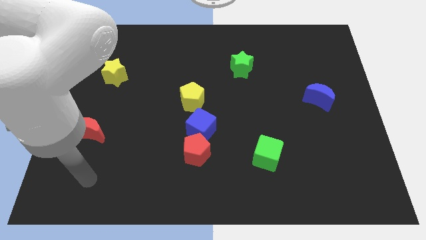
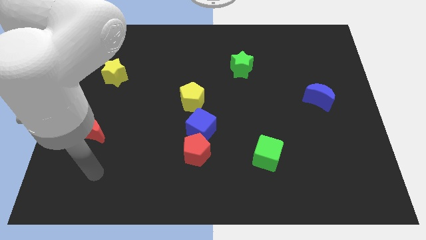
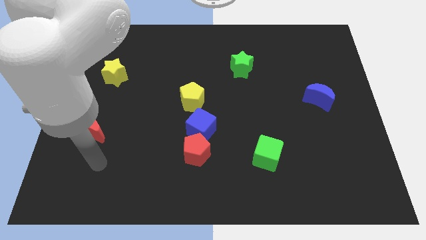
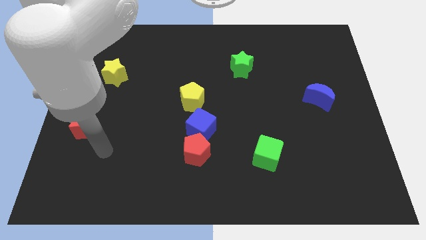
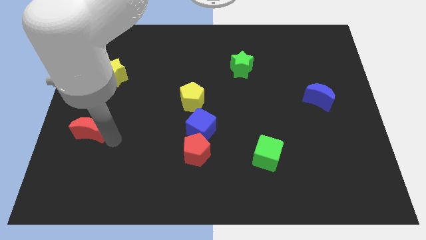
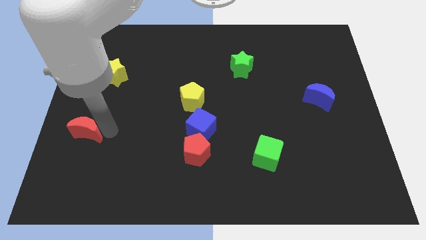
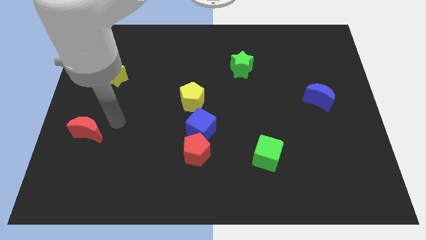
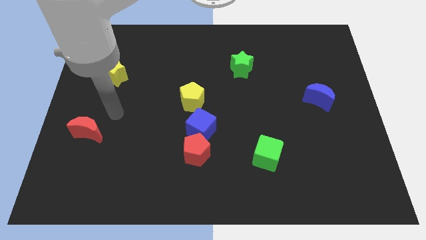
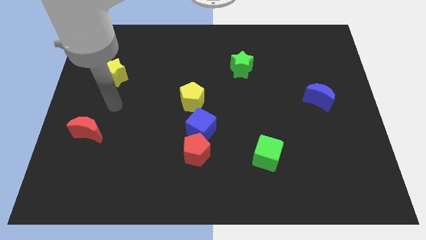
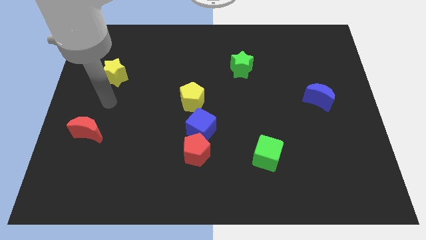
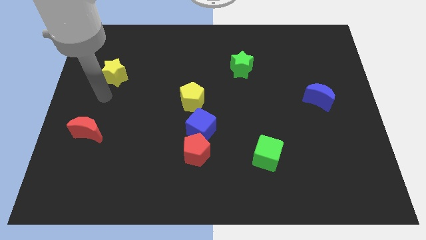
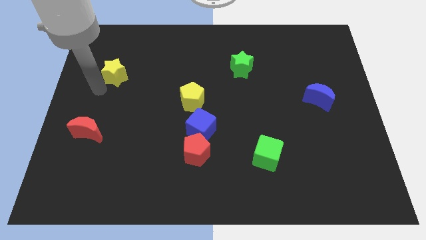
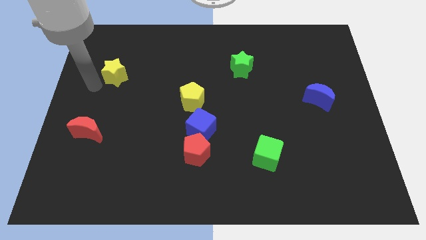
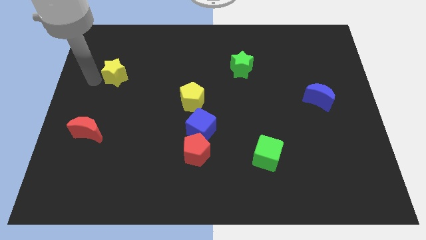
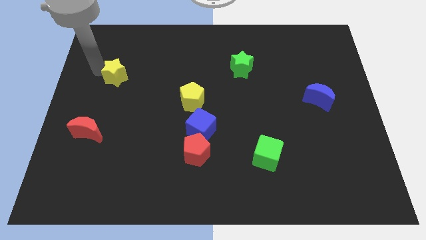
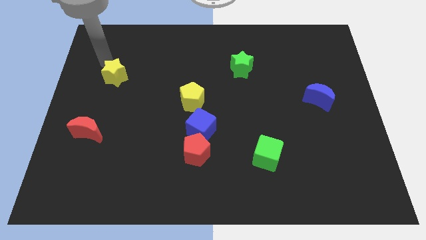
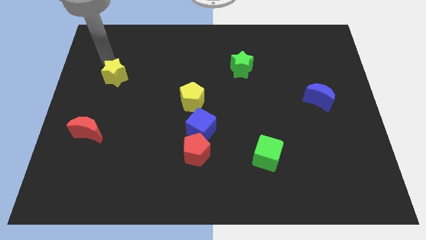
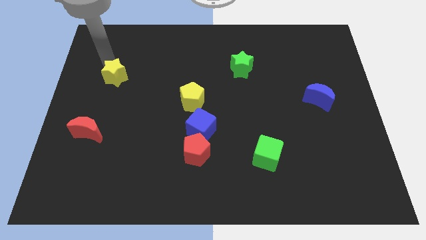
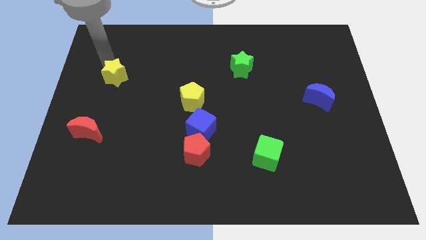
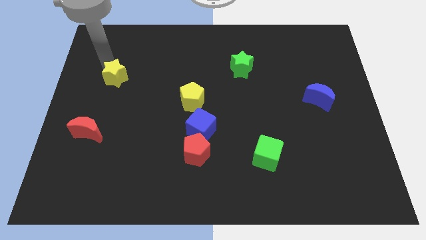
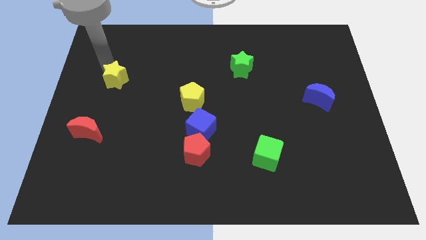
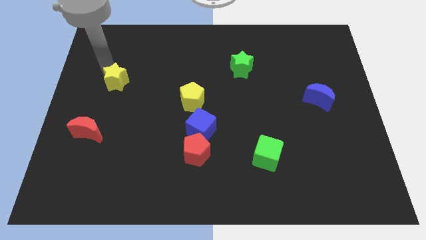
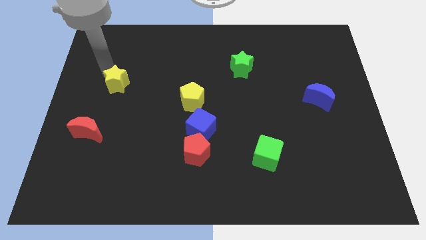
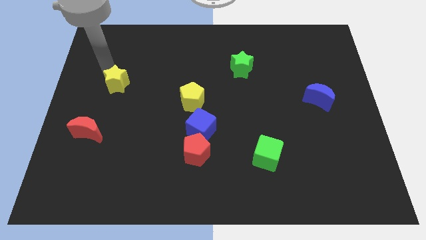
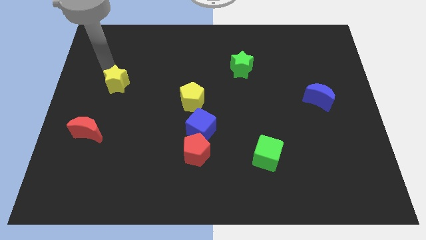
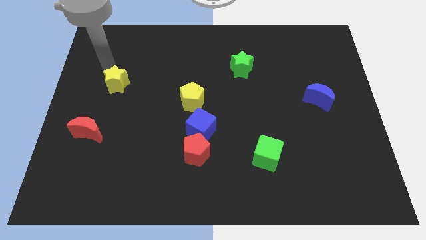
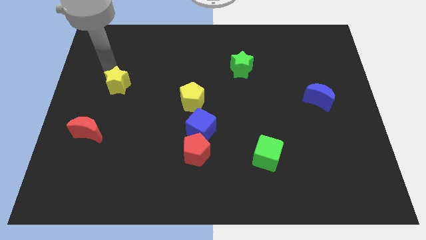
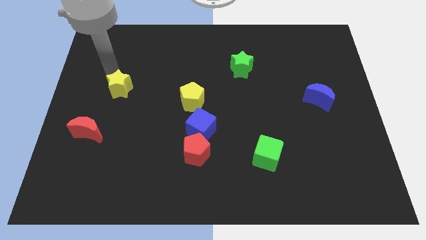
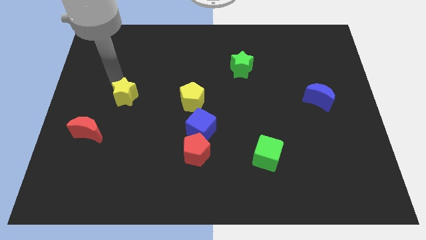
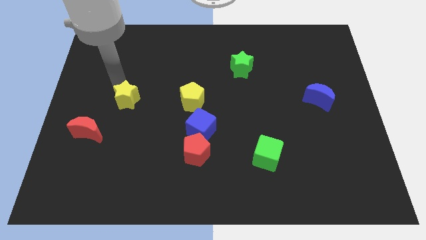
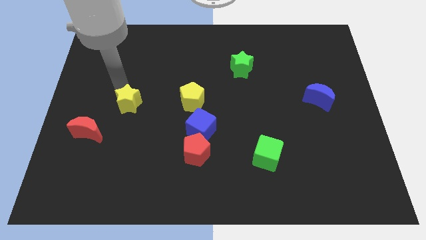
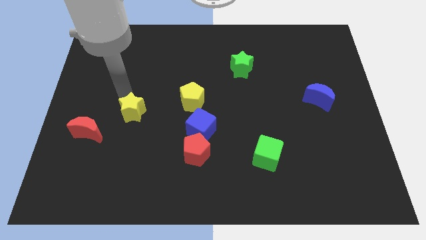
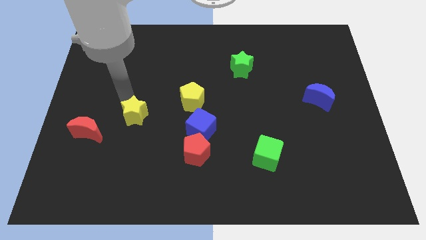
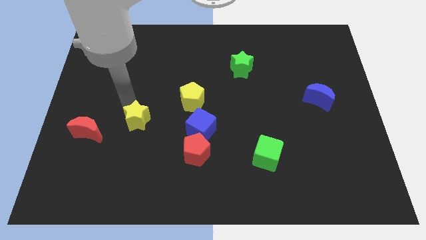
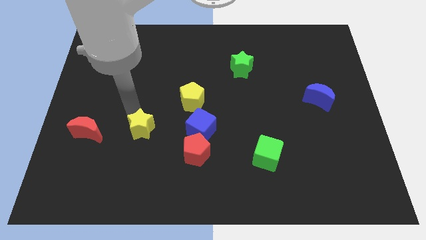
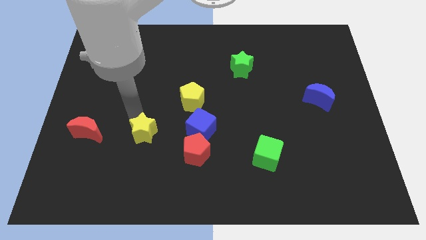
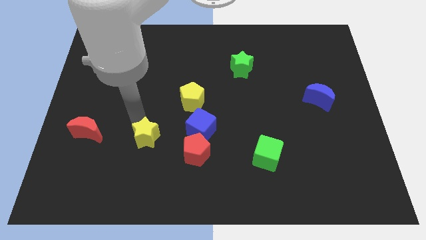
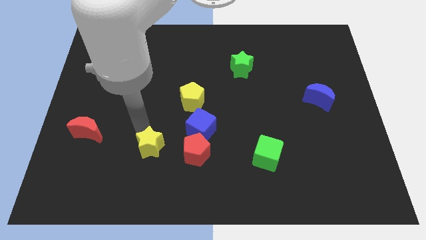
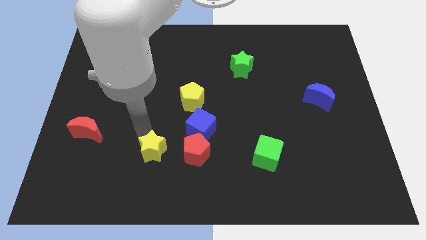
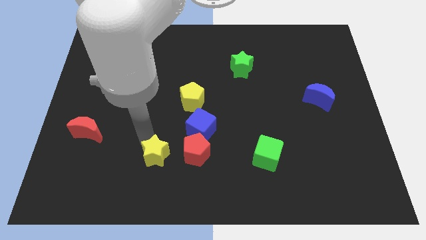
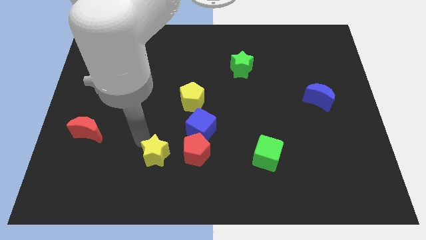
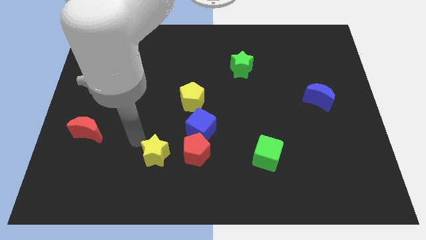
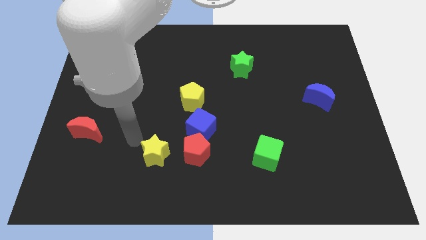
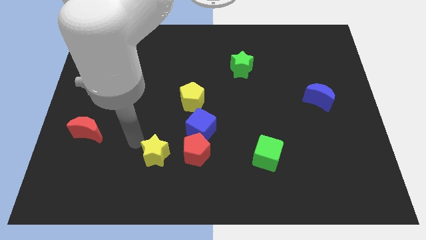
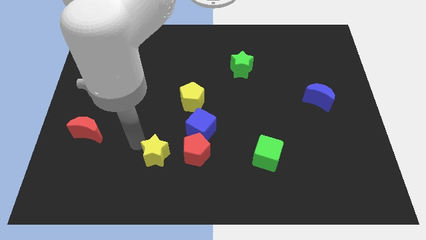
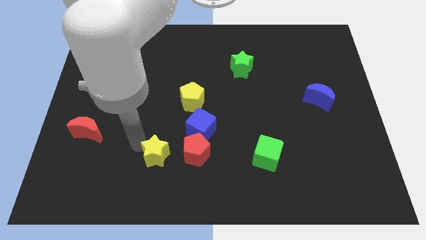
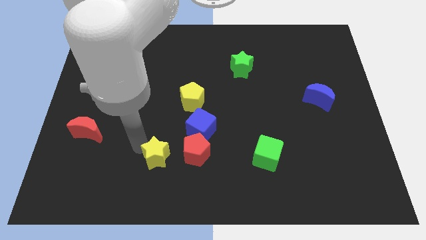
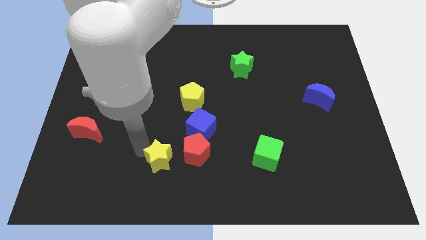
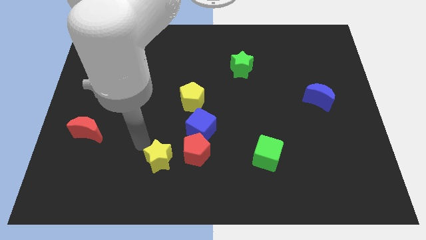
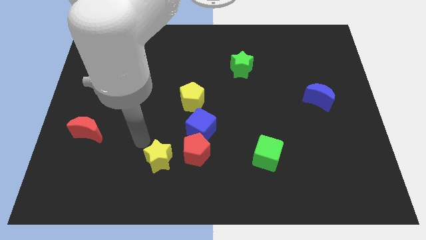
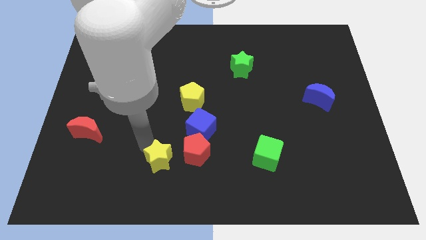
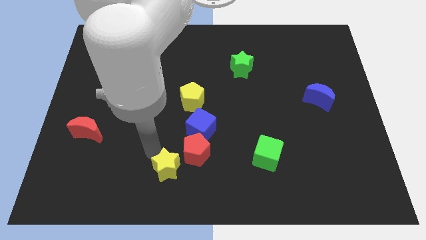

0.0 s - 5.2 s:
put the yellow star to the bottom

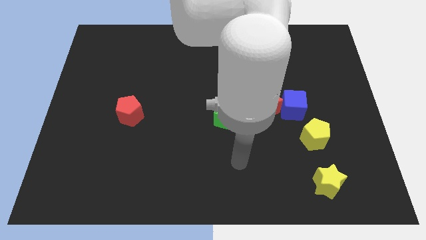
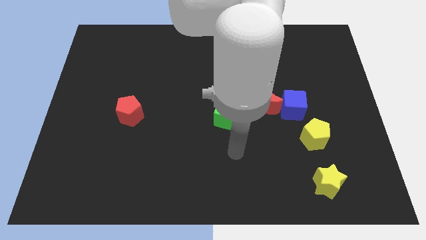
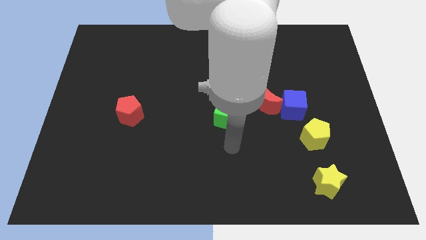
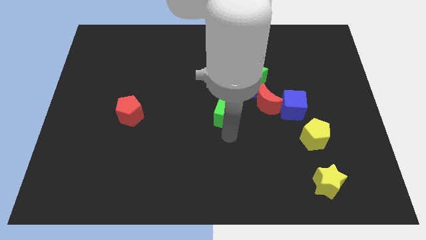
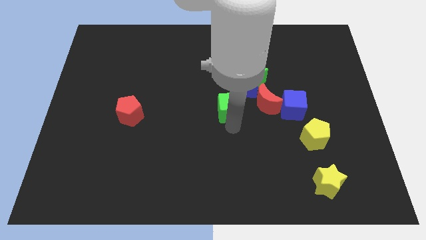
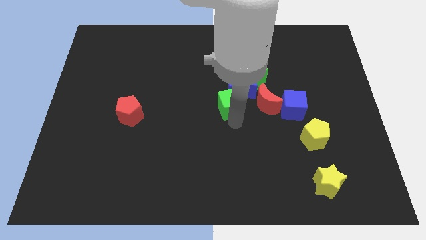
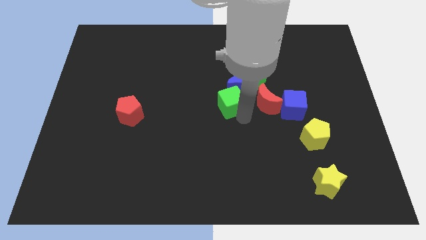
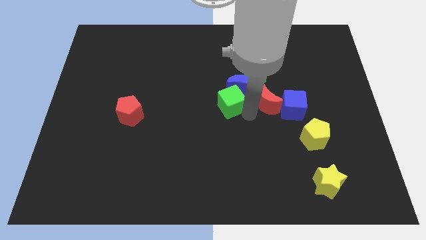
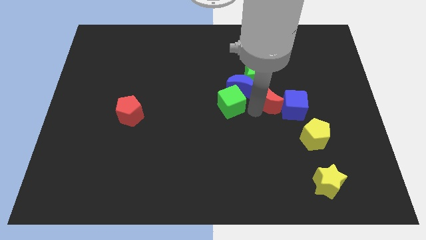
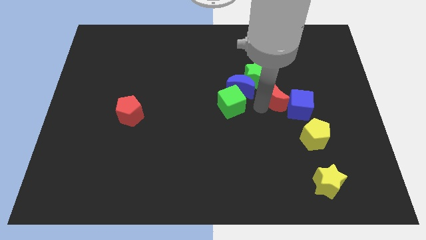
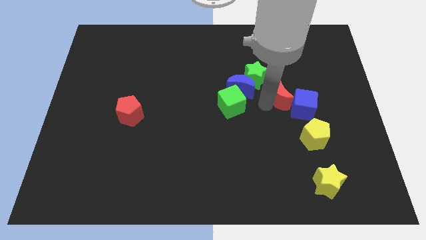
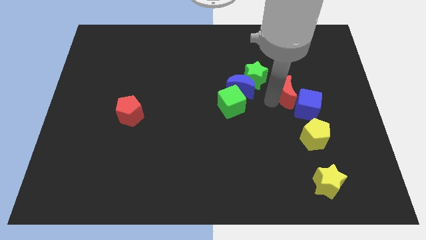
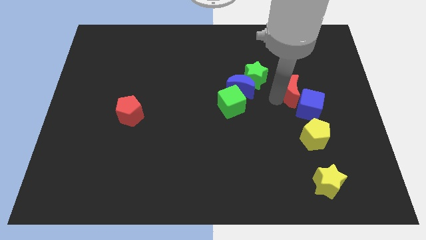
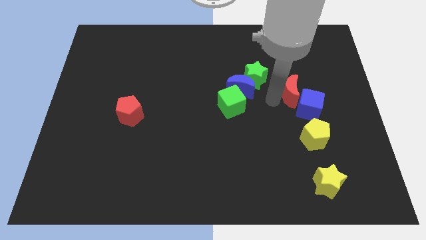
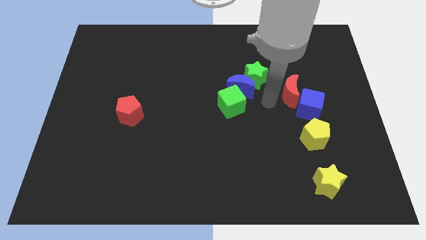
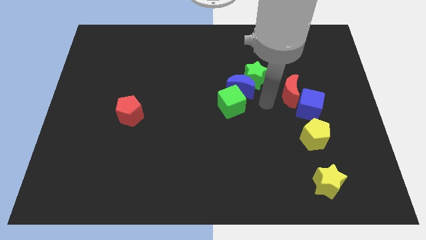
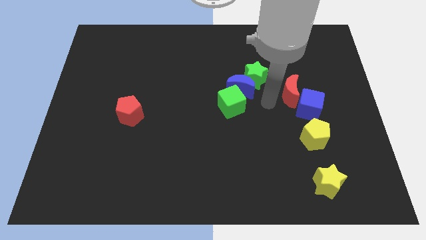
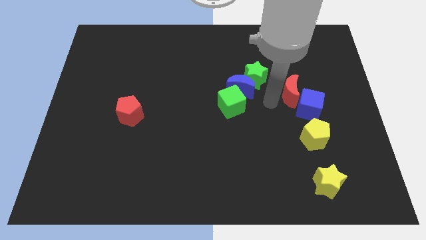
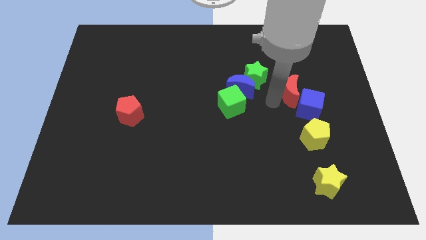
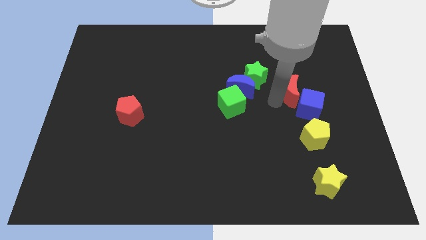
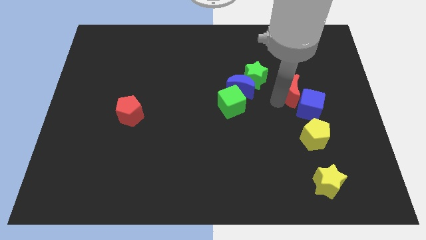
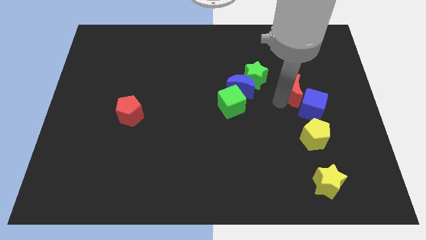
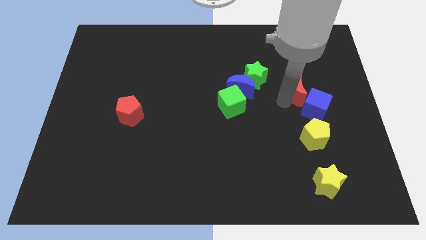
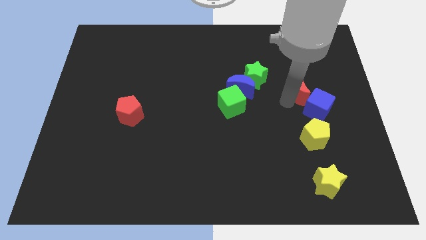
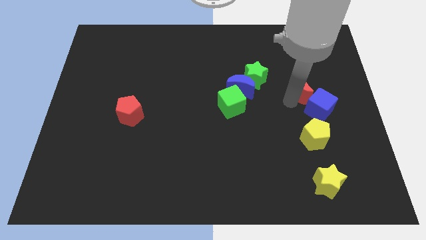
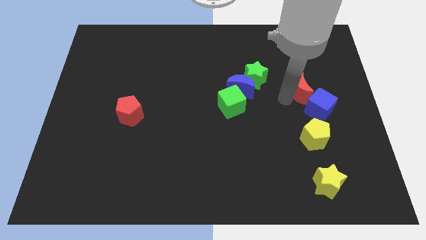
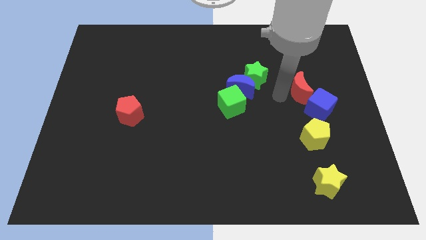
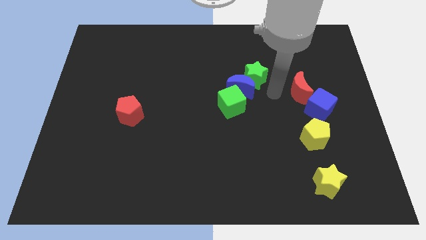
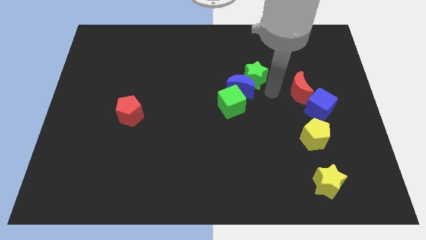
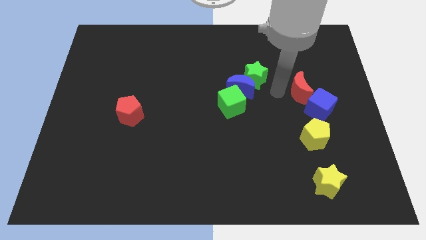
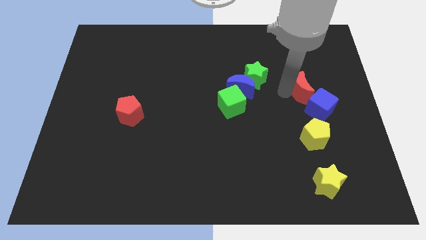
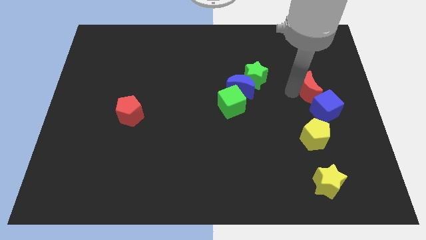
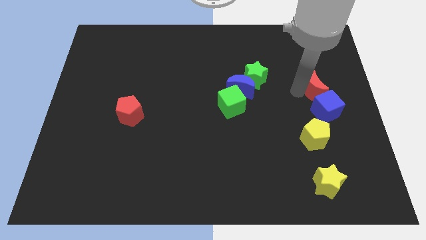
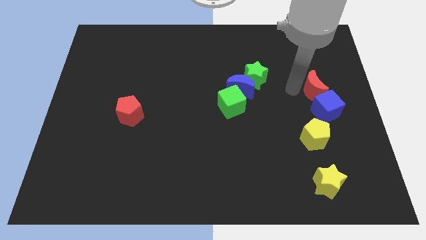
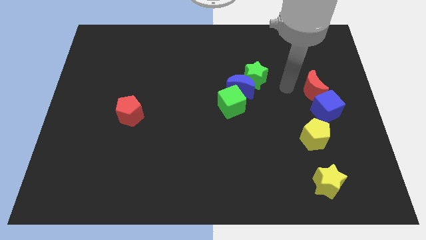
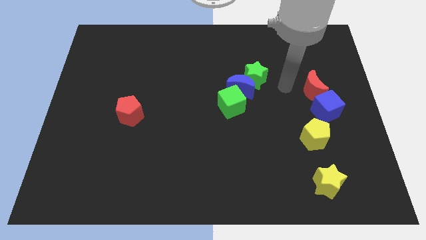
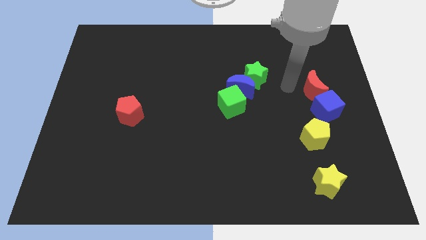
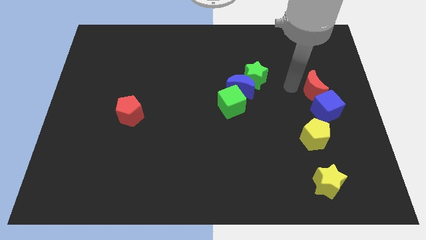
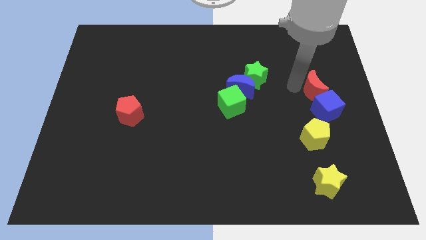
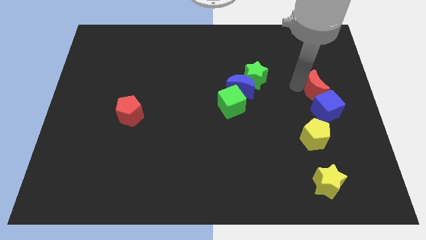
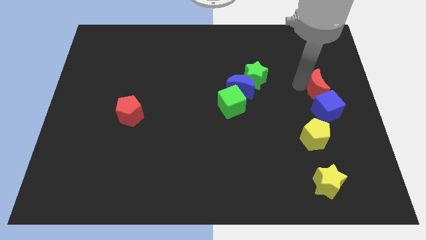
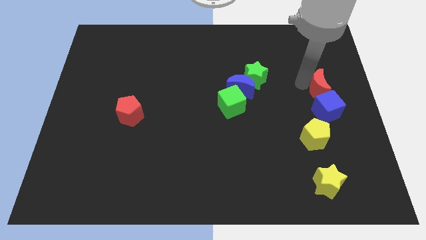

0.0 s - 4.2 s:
move the red moon to the right side
